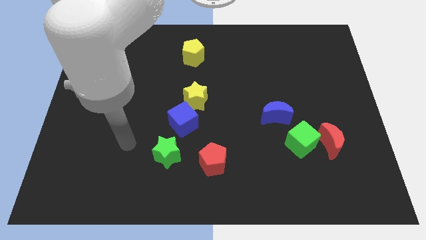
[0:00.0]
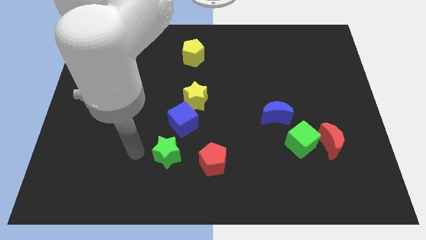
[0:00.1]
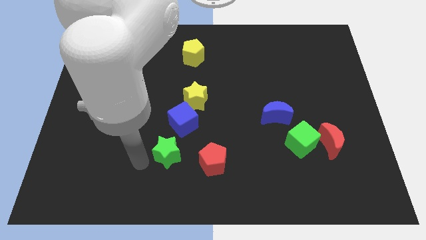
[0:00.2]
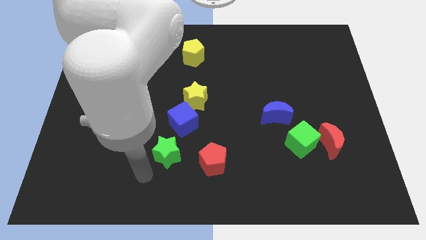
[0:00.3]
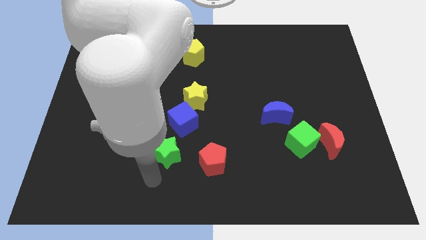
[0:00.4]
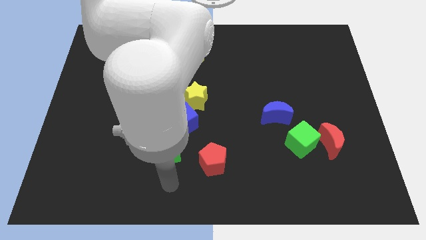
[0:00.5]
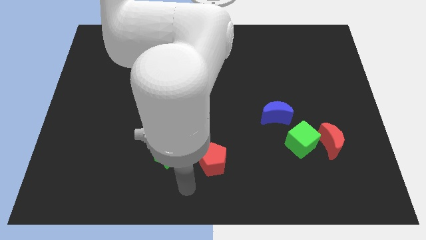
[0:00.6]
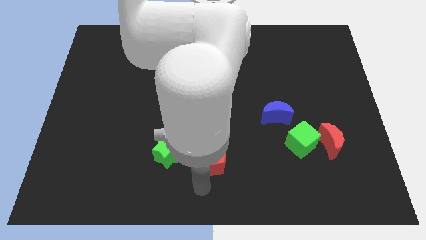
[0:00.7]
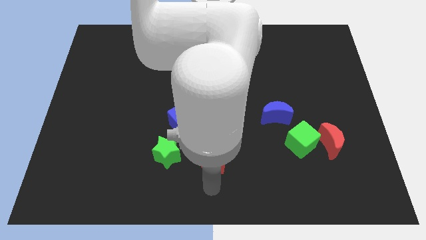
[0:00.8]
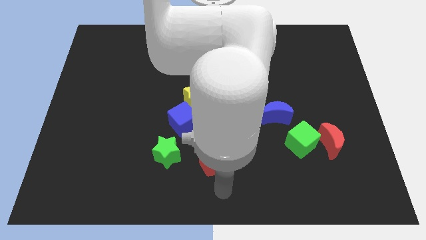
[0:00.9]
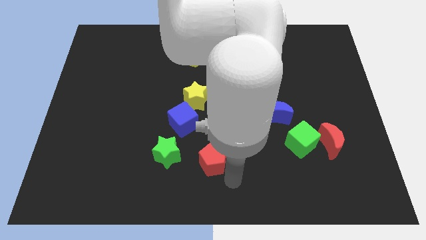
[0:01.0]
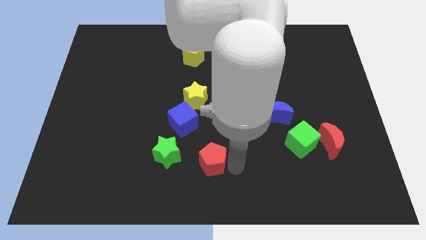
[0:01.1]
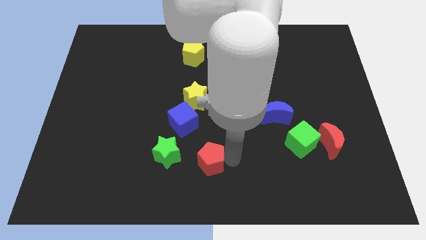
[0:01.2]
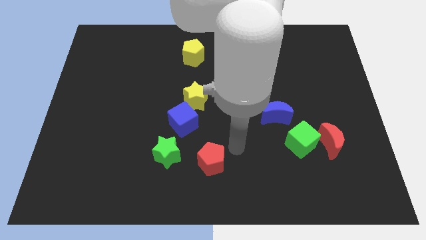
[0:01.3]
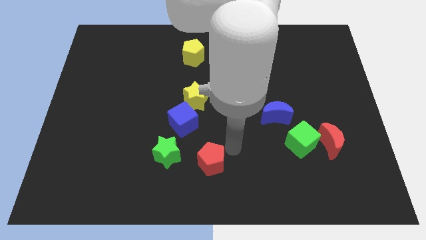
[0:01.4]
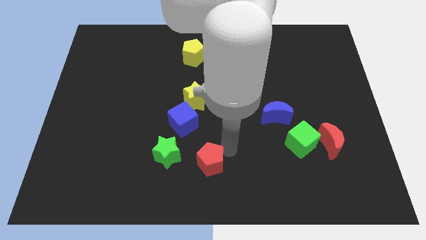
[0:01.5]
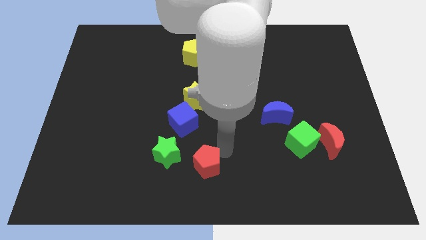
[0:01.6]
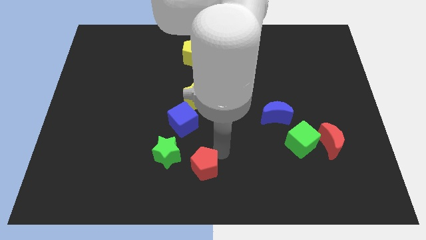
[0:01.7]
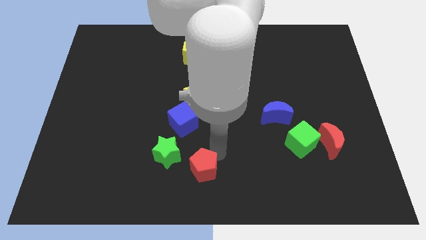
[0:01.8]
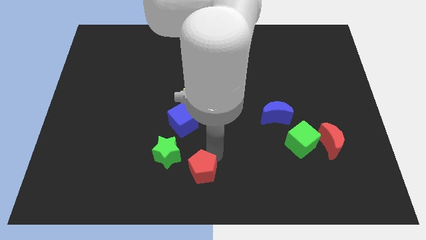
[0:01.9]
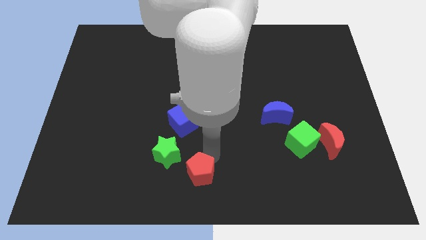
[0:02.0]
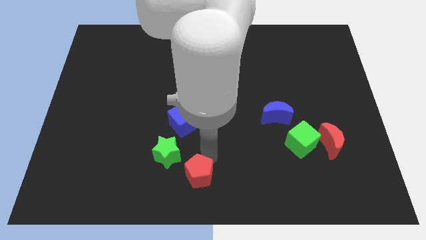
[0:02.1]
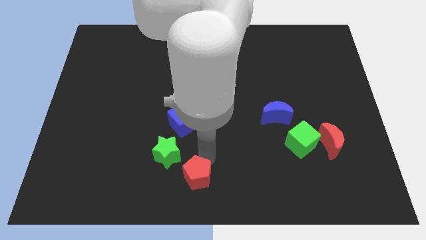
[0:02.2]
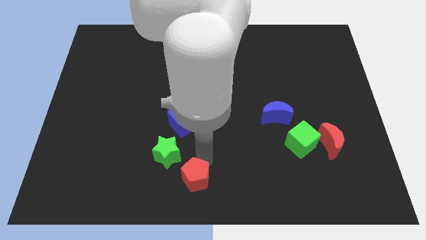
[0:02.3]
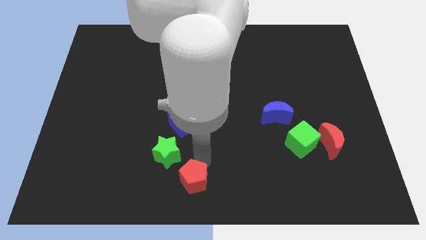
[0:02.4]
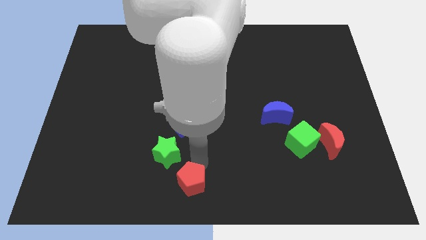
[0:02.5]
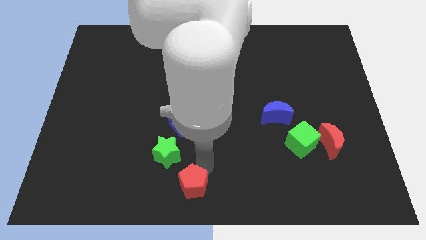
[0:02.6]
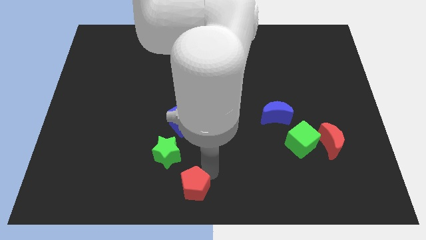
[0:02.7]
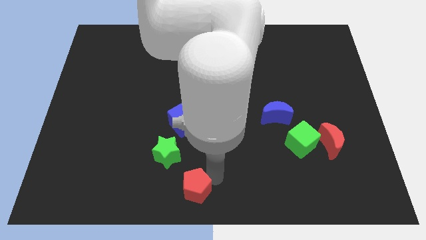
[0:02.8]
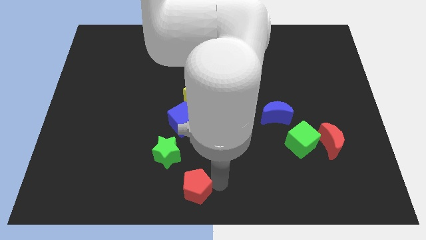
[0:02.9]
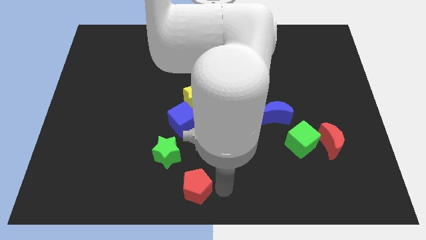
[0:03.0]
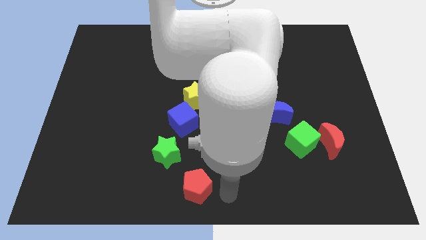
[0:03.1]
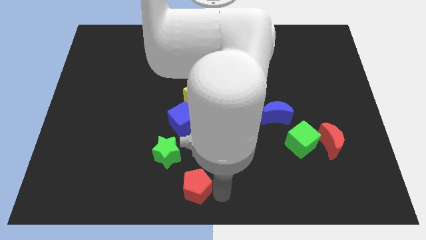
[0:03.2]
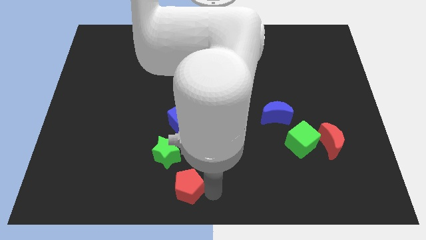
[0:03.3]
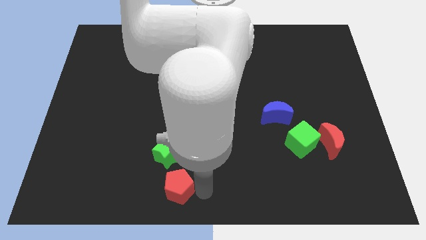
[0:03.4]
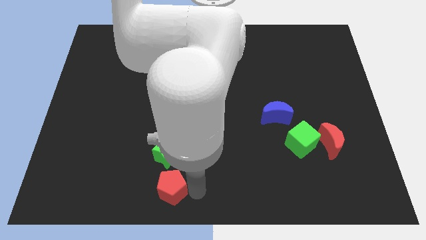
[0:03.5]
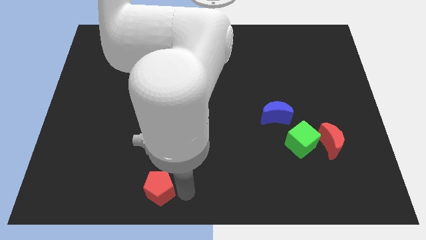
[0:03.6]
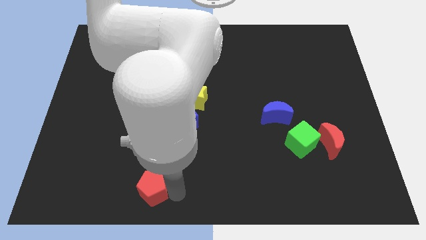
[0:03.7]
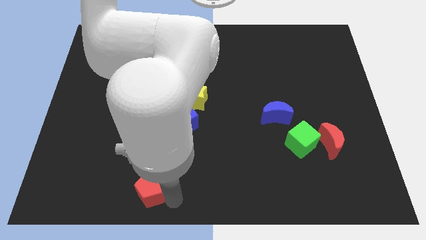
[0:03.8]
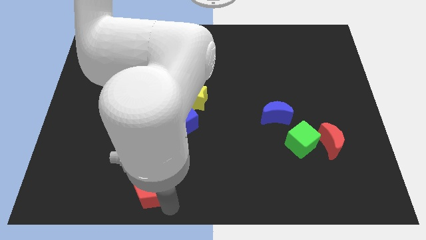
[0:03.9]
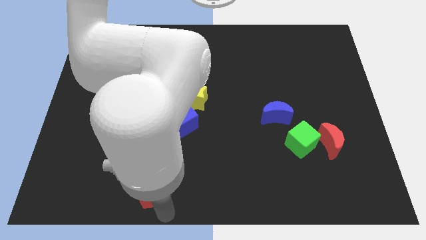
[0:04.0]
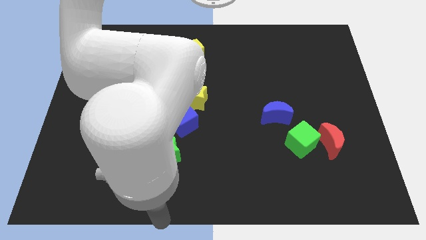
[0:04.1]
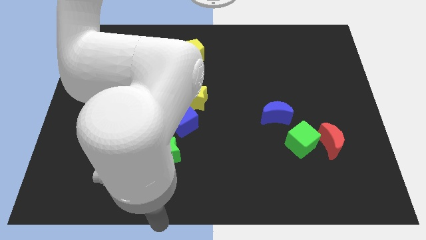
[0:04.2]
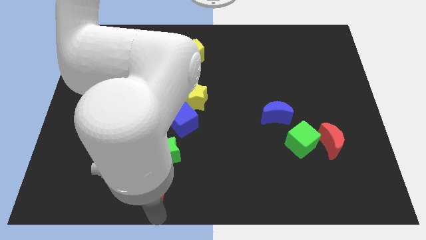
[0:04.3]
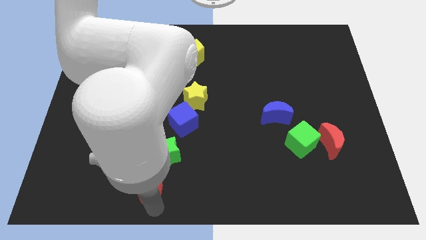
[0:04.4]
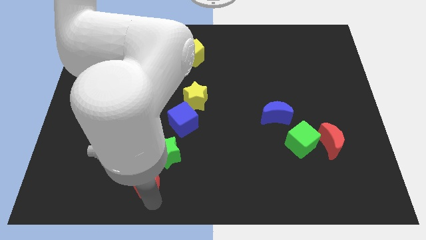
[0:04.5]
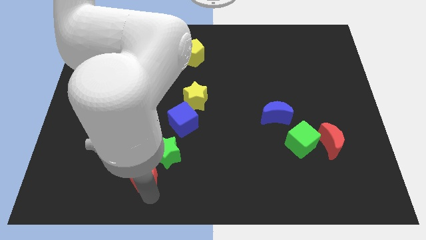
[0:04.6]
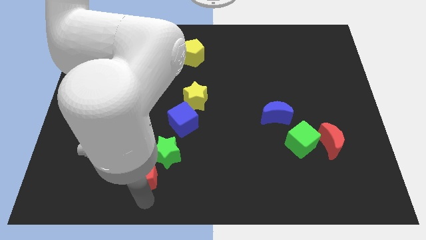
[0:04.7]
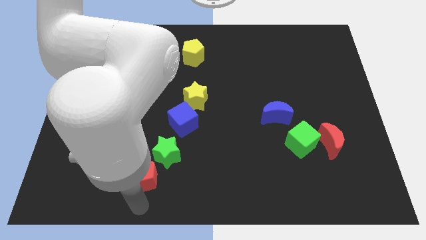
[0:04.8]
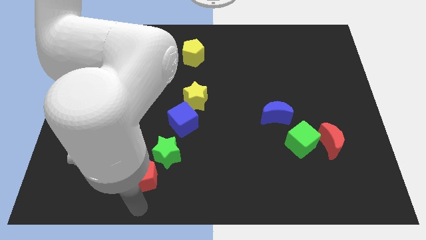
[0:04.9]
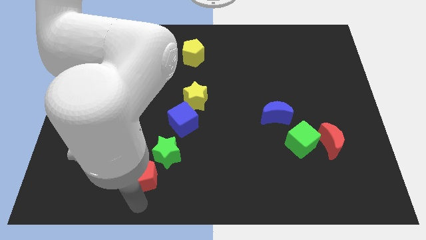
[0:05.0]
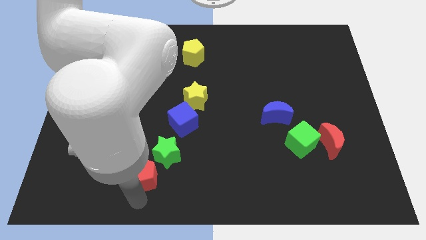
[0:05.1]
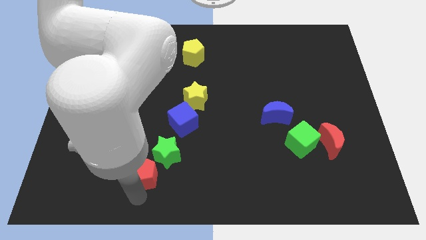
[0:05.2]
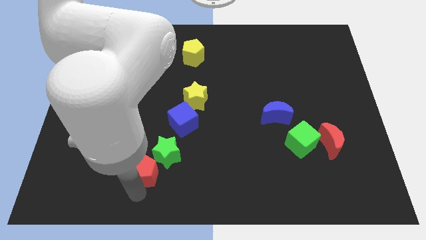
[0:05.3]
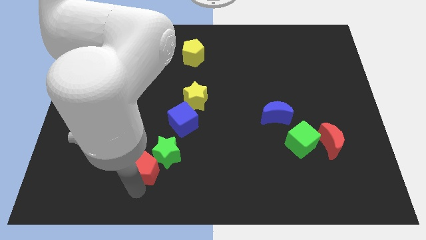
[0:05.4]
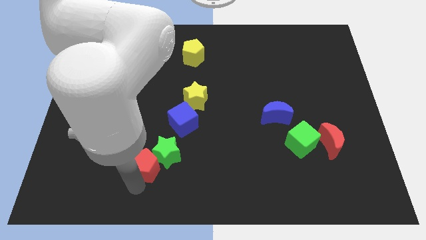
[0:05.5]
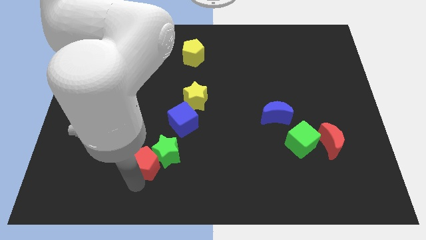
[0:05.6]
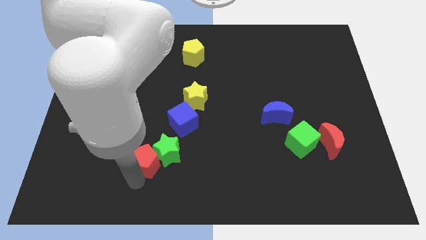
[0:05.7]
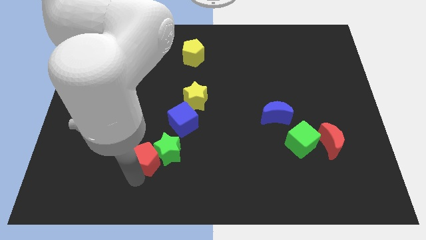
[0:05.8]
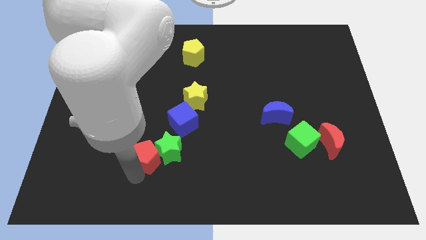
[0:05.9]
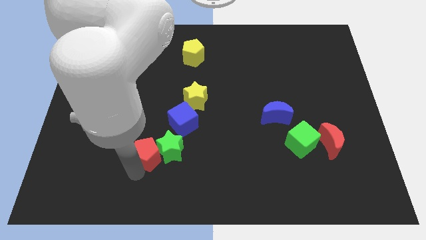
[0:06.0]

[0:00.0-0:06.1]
slightly slide the red pentagon up and to the left

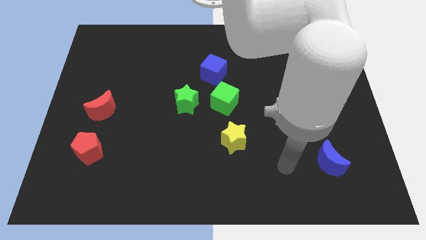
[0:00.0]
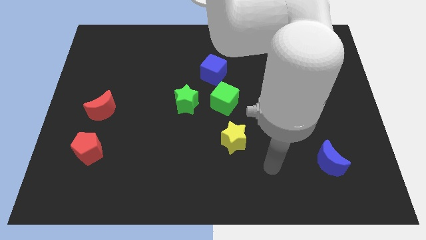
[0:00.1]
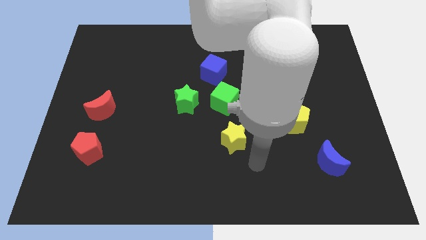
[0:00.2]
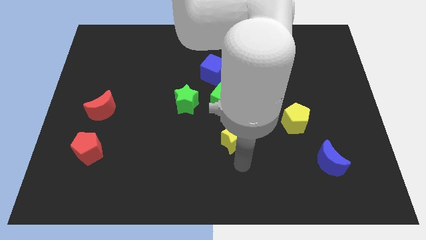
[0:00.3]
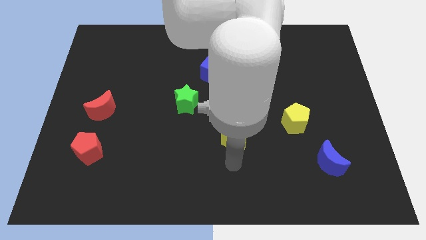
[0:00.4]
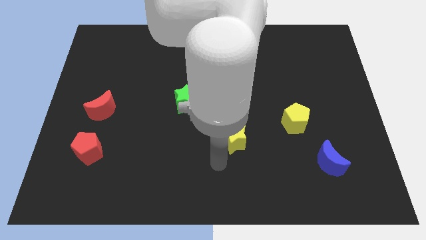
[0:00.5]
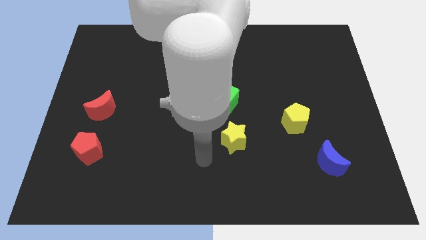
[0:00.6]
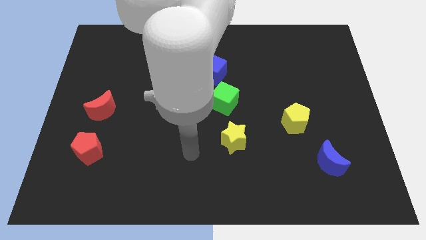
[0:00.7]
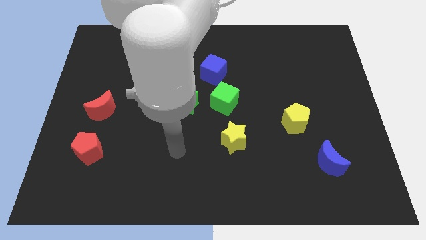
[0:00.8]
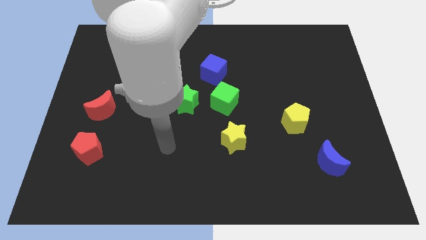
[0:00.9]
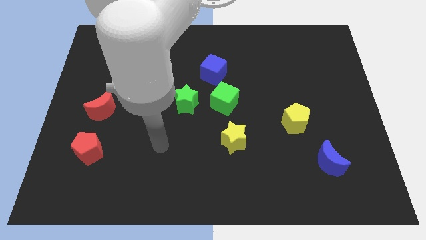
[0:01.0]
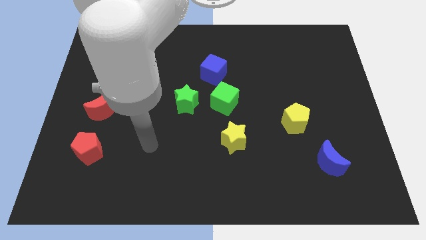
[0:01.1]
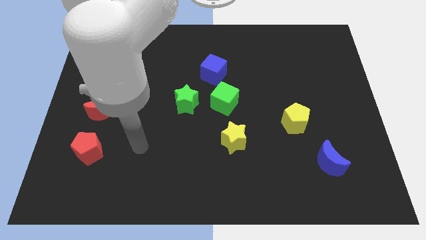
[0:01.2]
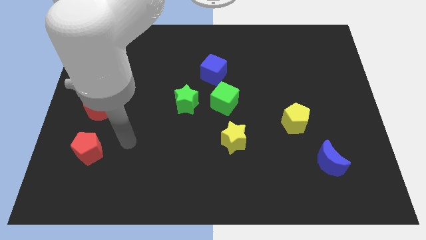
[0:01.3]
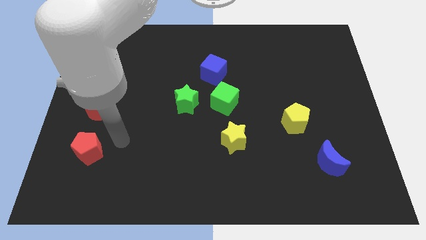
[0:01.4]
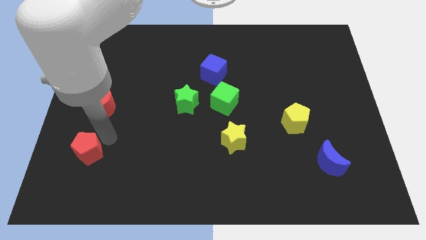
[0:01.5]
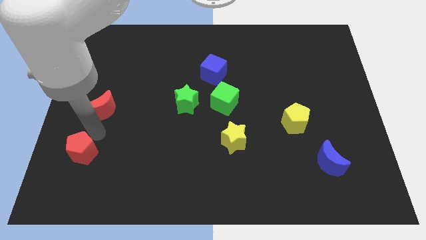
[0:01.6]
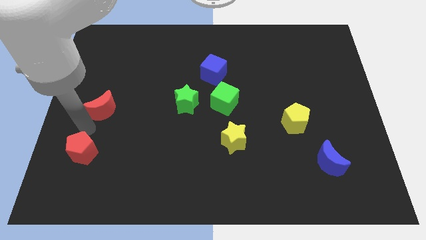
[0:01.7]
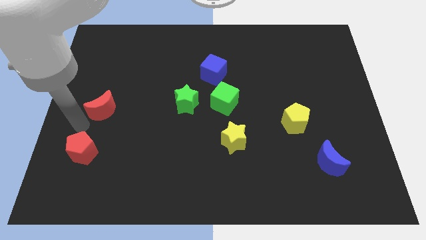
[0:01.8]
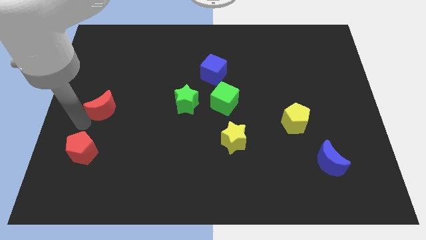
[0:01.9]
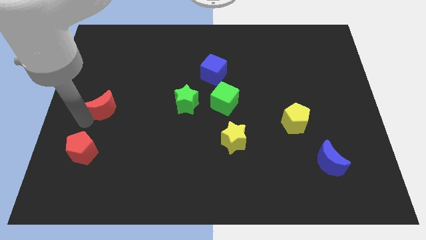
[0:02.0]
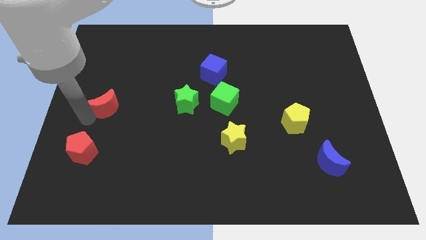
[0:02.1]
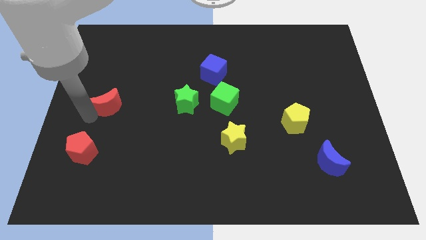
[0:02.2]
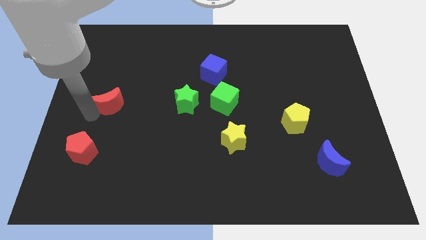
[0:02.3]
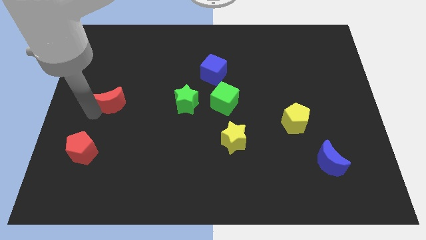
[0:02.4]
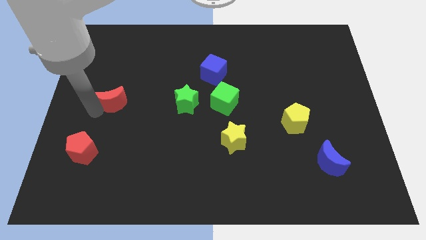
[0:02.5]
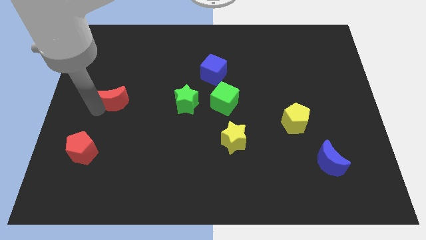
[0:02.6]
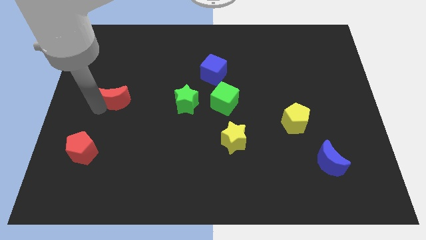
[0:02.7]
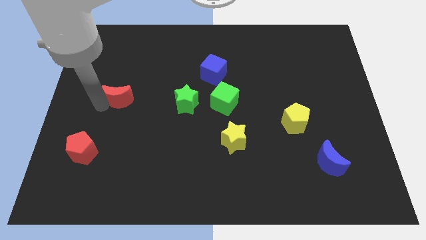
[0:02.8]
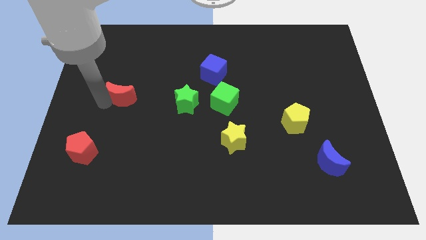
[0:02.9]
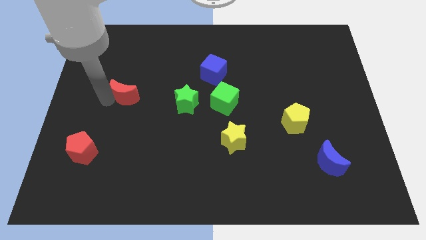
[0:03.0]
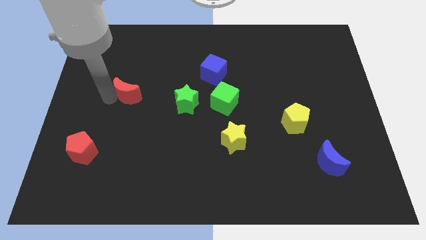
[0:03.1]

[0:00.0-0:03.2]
push the red moon somewhat diagonally up and to the right
